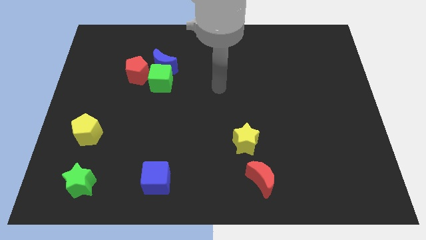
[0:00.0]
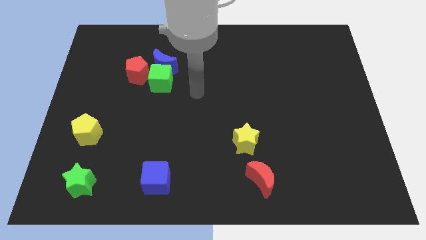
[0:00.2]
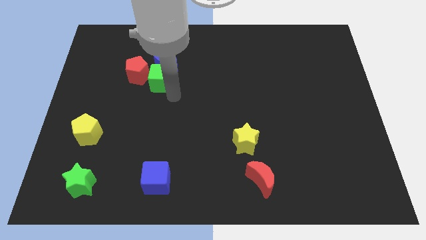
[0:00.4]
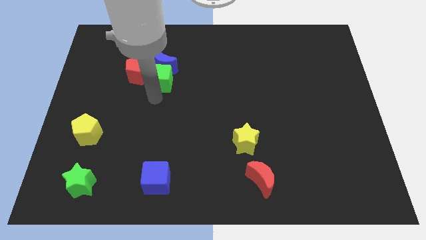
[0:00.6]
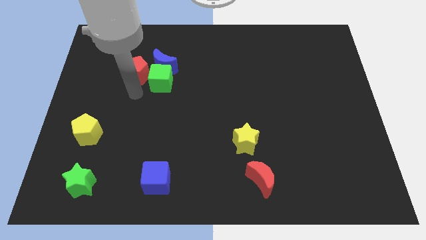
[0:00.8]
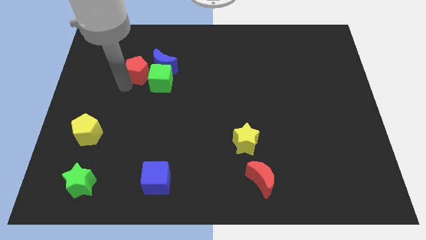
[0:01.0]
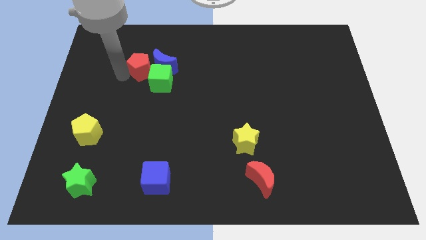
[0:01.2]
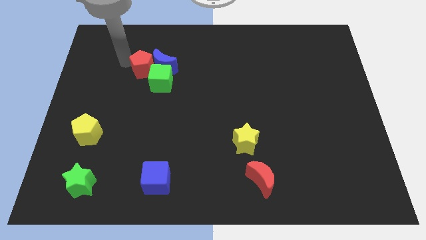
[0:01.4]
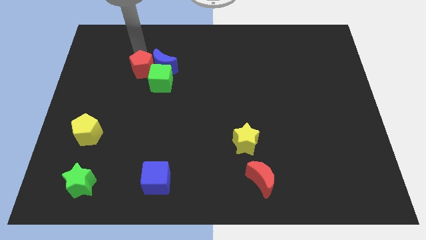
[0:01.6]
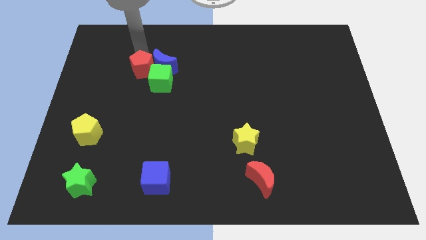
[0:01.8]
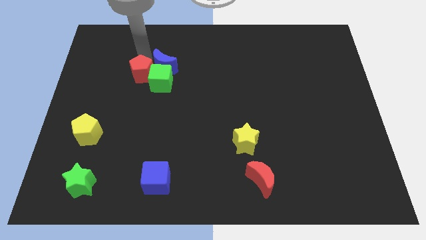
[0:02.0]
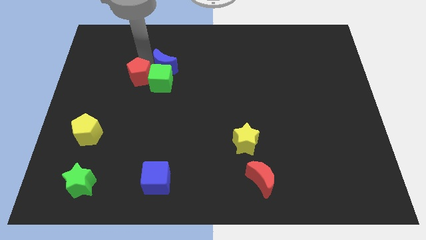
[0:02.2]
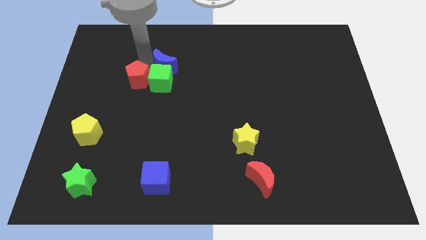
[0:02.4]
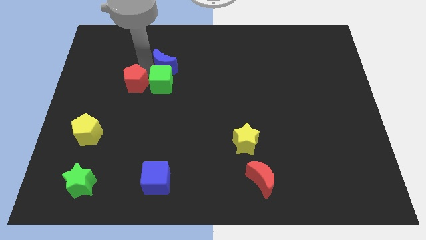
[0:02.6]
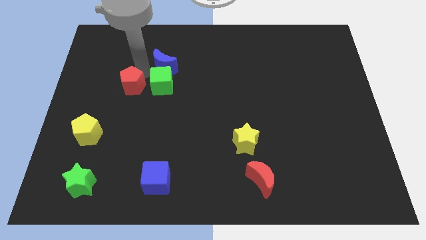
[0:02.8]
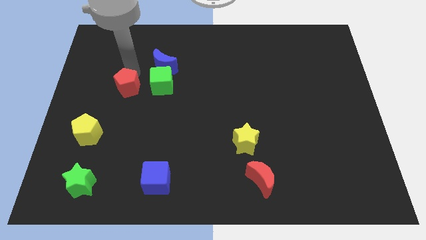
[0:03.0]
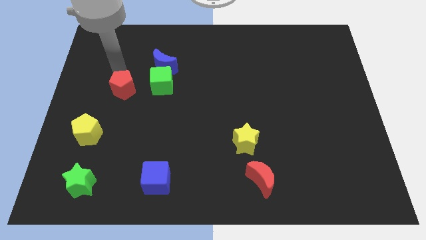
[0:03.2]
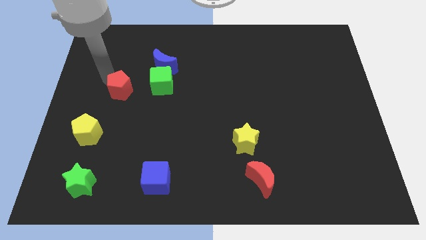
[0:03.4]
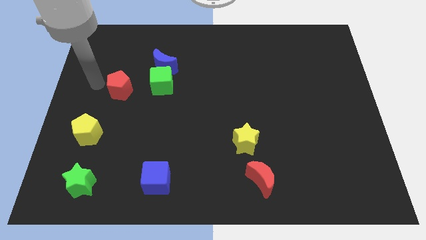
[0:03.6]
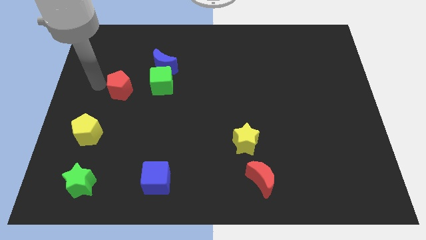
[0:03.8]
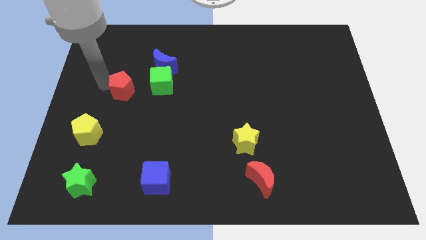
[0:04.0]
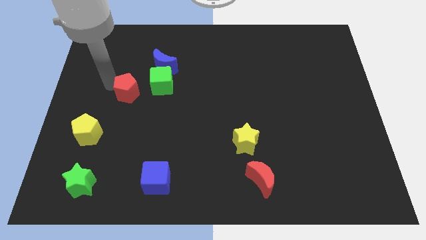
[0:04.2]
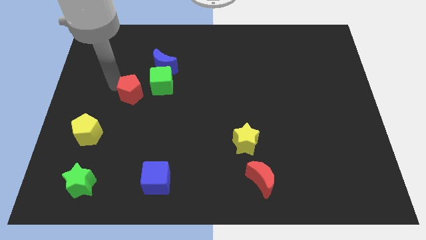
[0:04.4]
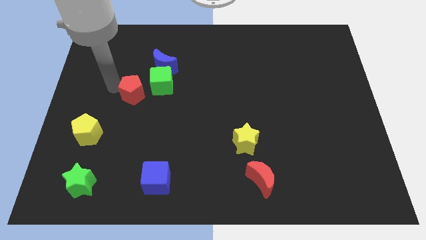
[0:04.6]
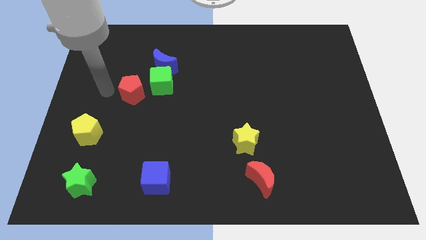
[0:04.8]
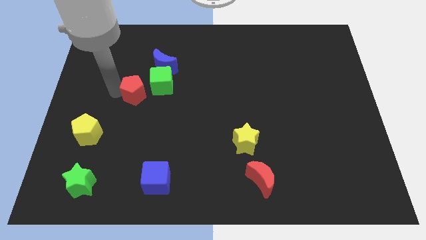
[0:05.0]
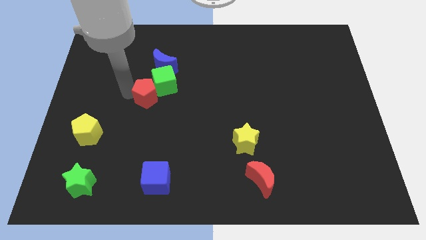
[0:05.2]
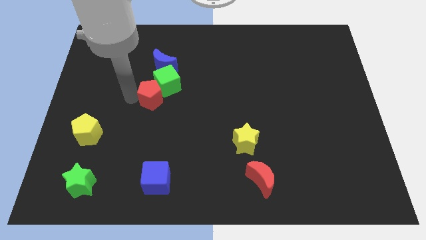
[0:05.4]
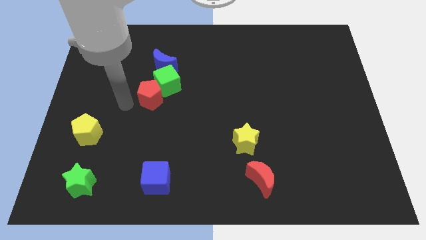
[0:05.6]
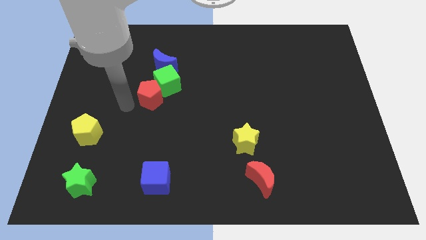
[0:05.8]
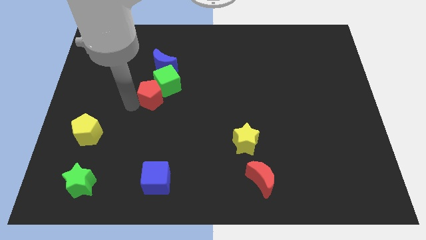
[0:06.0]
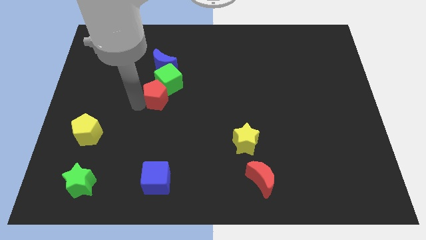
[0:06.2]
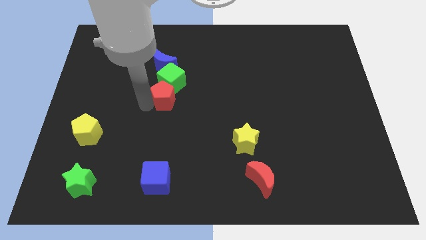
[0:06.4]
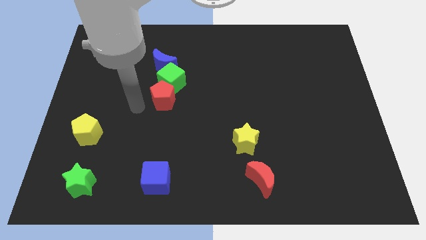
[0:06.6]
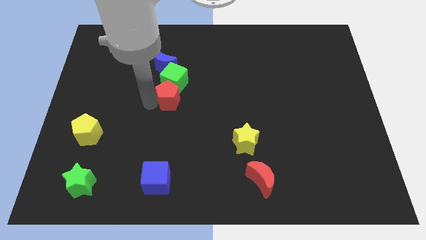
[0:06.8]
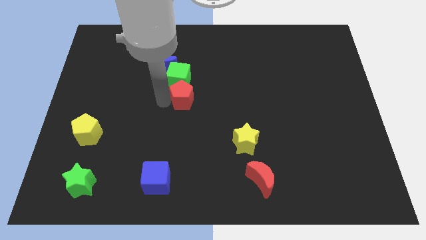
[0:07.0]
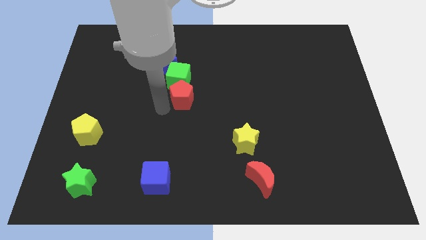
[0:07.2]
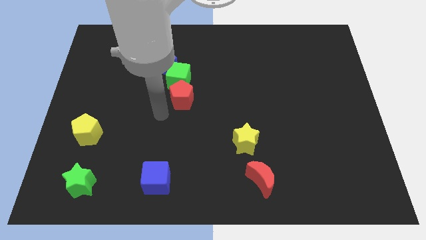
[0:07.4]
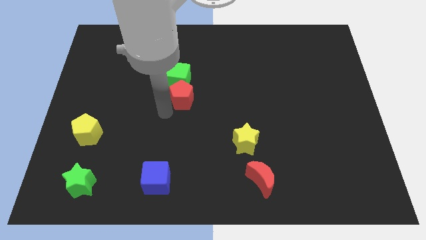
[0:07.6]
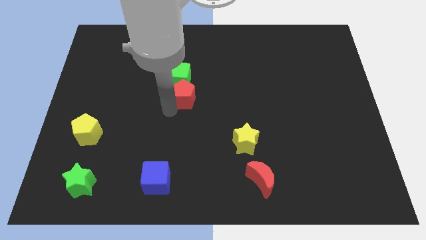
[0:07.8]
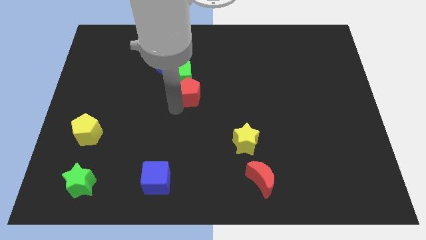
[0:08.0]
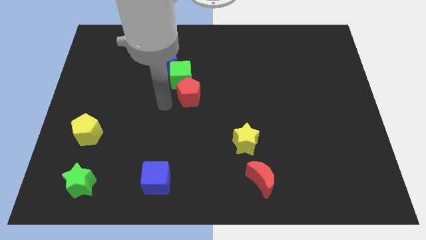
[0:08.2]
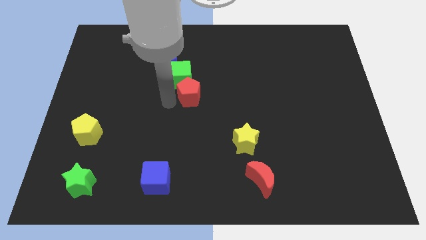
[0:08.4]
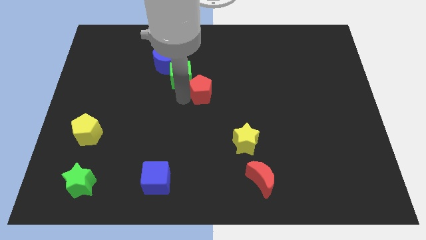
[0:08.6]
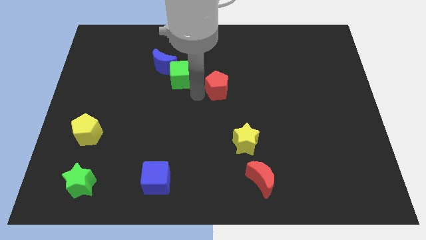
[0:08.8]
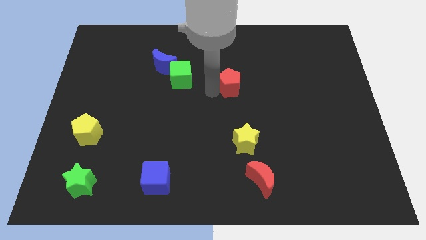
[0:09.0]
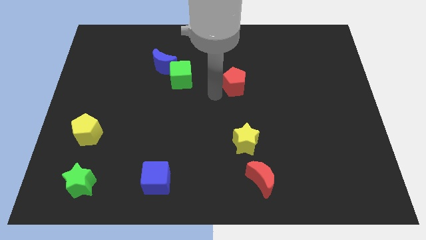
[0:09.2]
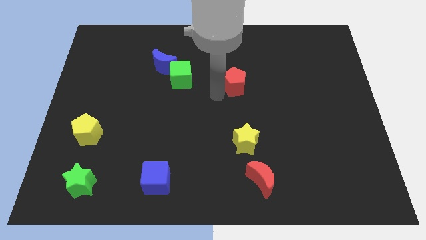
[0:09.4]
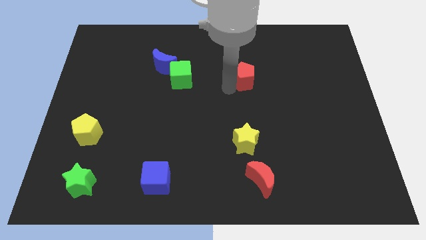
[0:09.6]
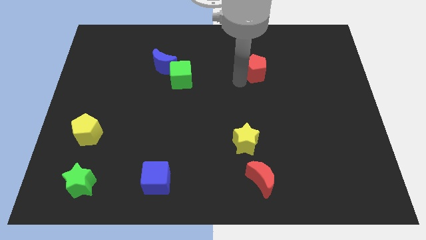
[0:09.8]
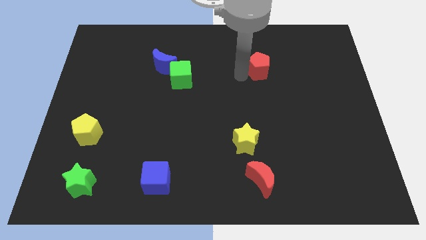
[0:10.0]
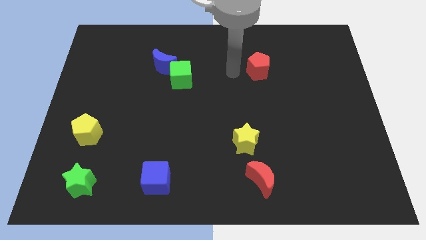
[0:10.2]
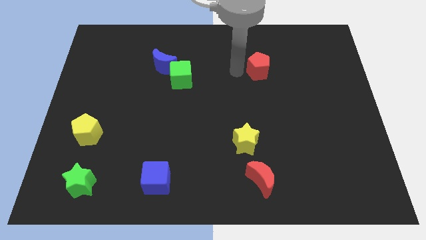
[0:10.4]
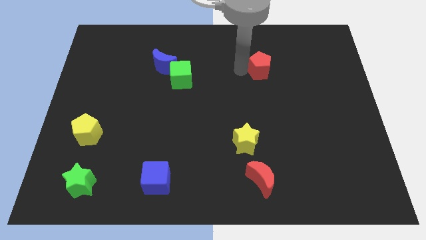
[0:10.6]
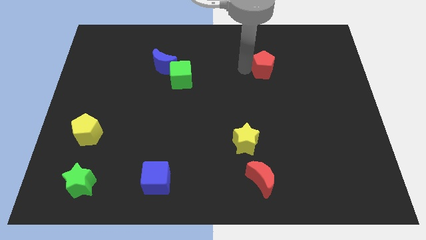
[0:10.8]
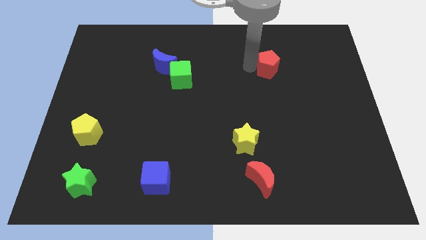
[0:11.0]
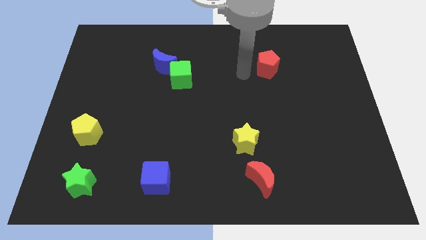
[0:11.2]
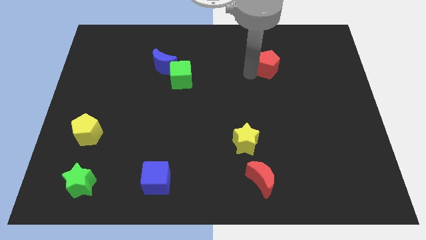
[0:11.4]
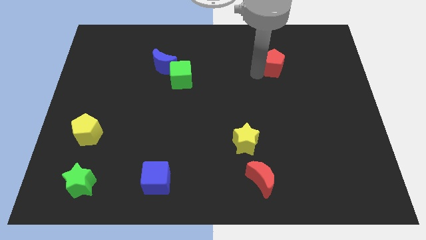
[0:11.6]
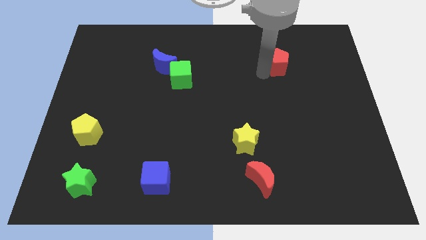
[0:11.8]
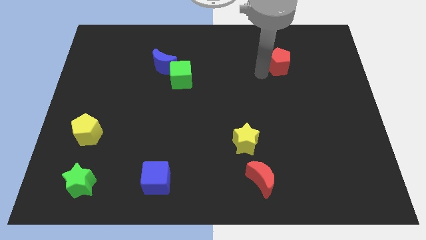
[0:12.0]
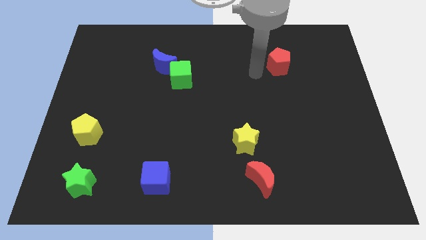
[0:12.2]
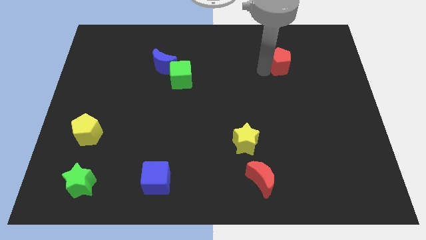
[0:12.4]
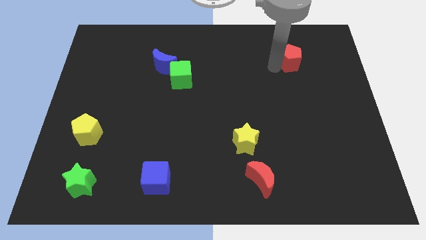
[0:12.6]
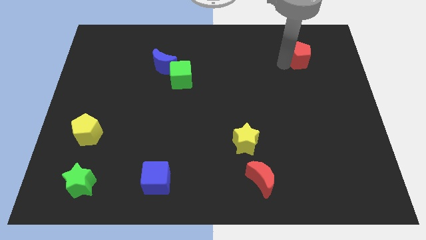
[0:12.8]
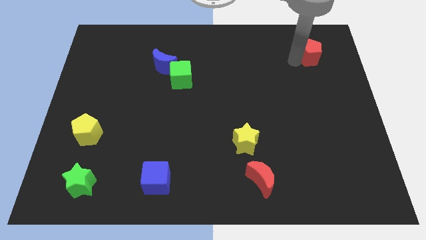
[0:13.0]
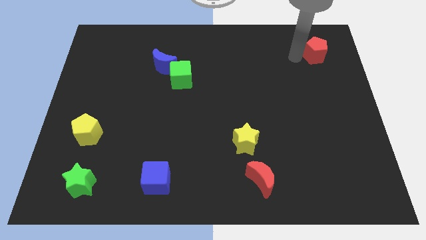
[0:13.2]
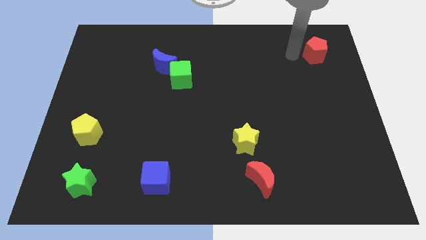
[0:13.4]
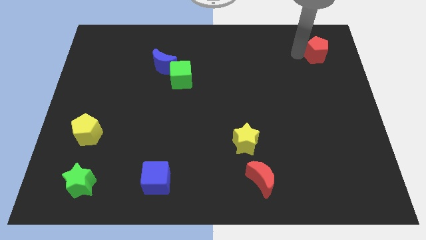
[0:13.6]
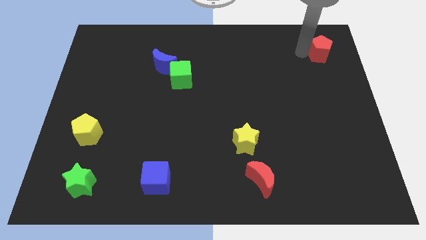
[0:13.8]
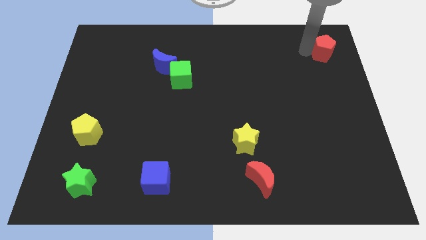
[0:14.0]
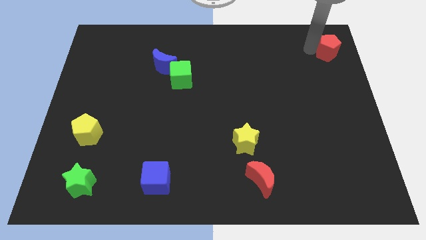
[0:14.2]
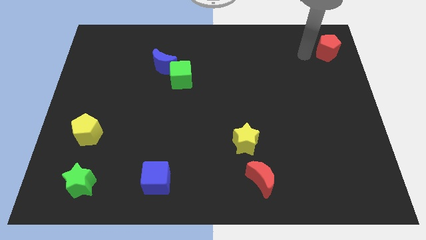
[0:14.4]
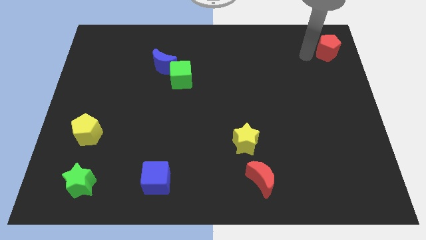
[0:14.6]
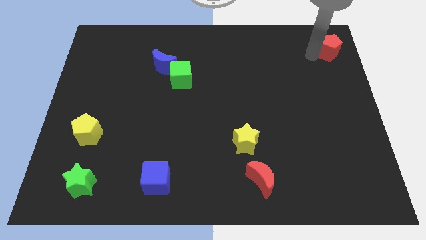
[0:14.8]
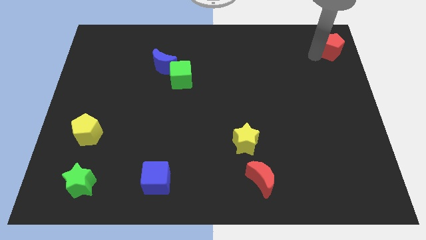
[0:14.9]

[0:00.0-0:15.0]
slide the red pentagon to the top right

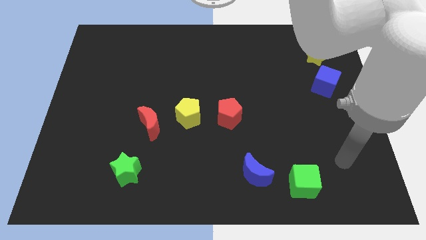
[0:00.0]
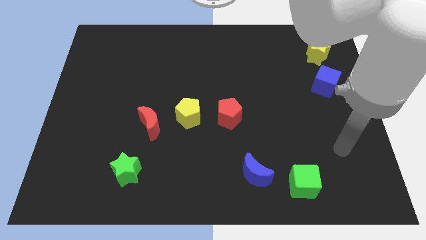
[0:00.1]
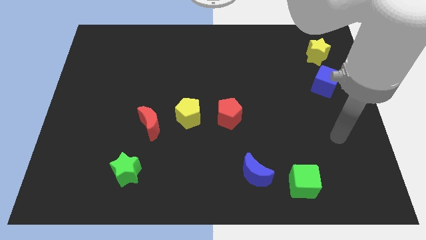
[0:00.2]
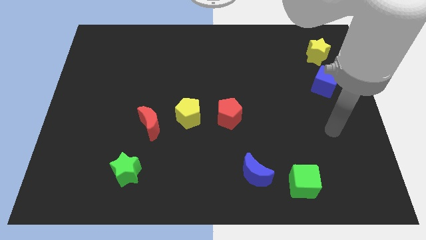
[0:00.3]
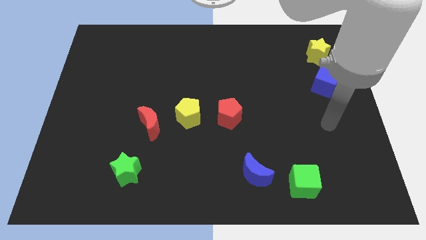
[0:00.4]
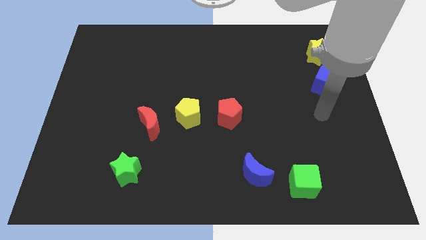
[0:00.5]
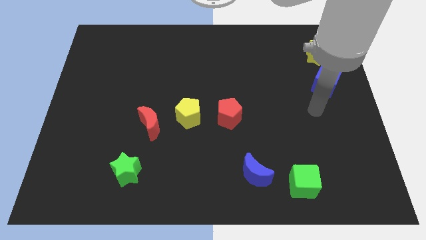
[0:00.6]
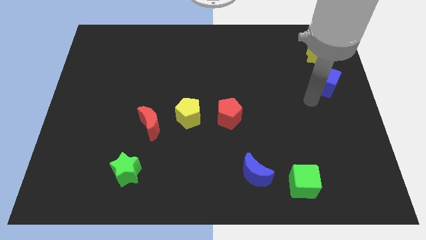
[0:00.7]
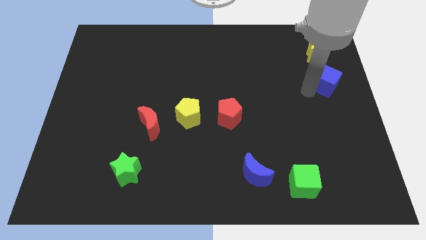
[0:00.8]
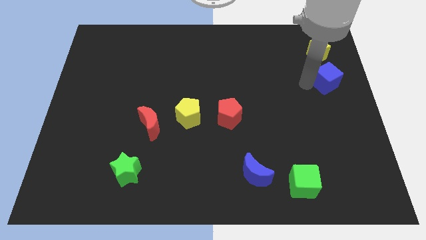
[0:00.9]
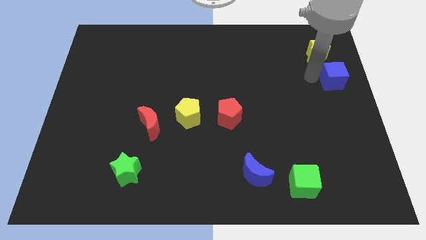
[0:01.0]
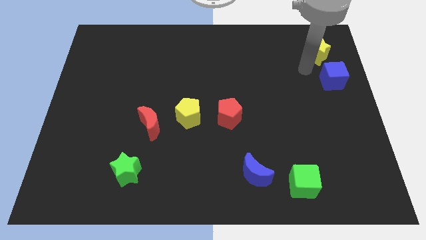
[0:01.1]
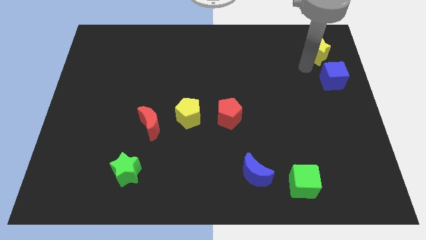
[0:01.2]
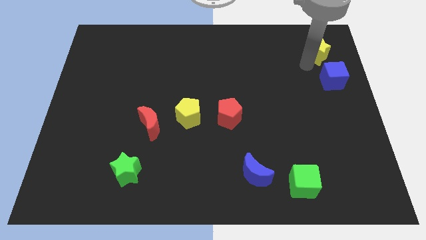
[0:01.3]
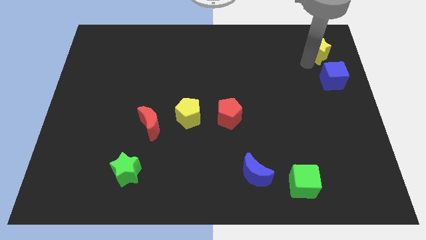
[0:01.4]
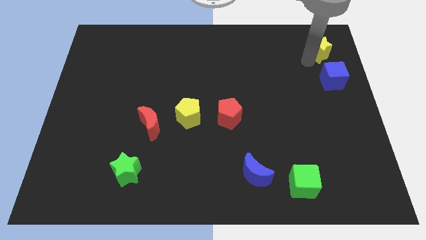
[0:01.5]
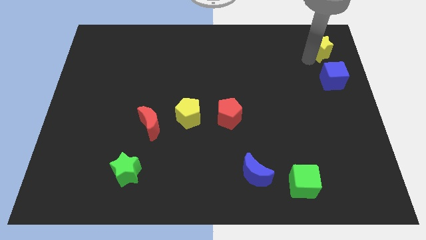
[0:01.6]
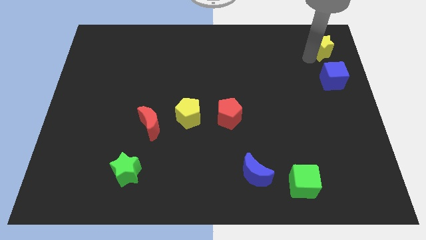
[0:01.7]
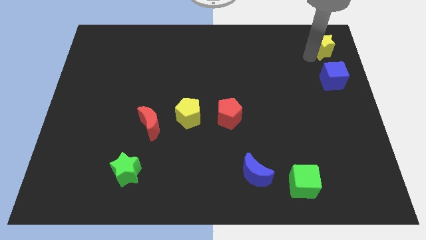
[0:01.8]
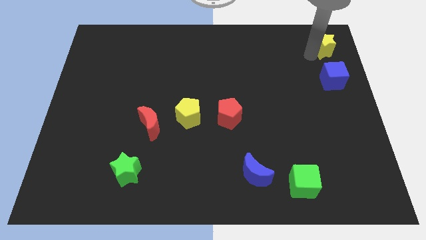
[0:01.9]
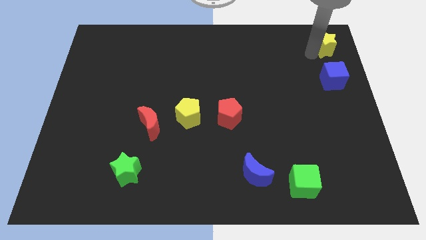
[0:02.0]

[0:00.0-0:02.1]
slide the yellow star to the upper right corner
